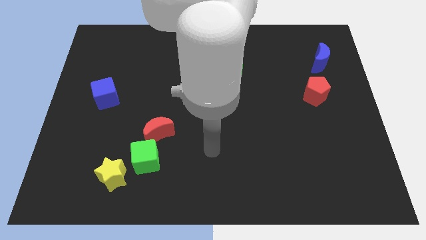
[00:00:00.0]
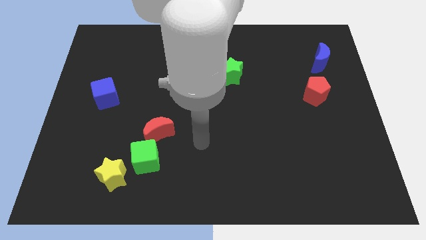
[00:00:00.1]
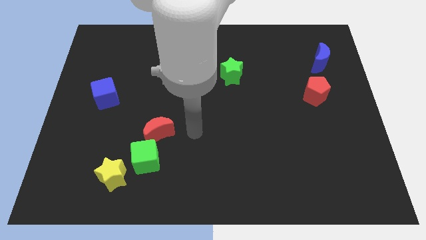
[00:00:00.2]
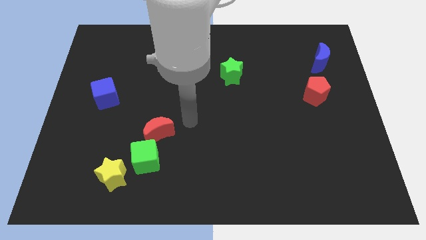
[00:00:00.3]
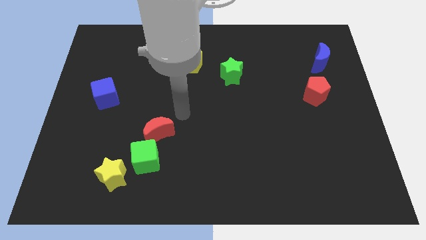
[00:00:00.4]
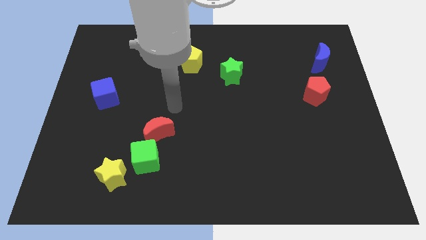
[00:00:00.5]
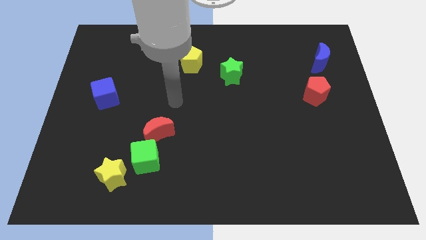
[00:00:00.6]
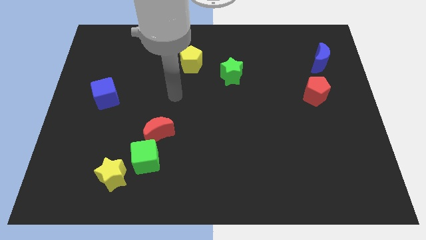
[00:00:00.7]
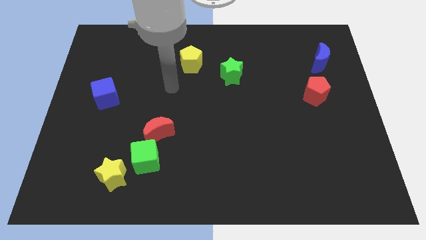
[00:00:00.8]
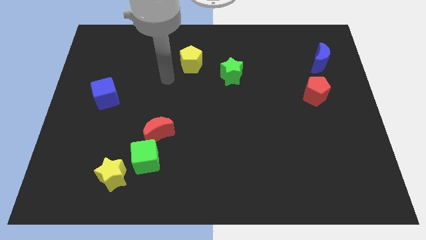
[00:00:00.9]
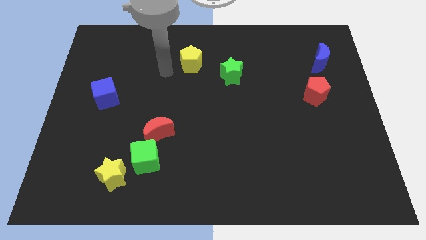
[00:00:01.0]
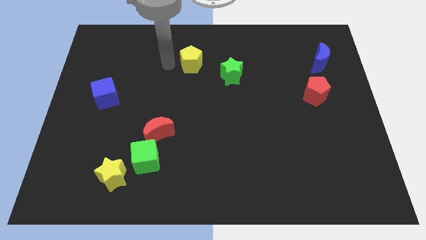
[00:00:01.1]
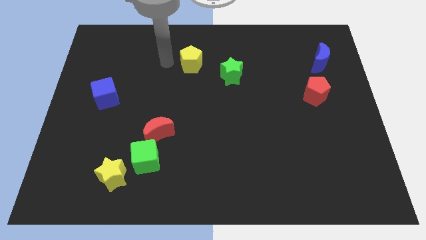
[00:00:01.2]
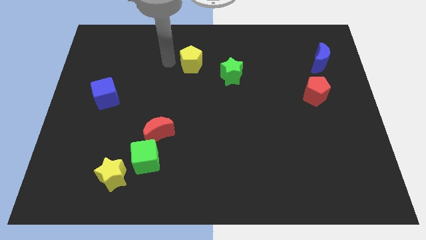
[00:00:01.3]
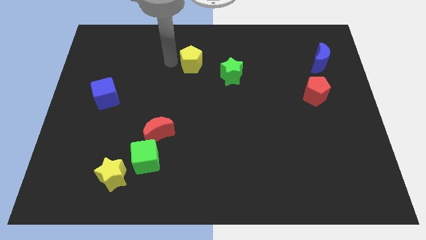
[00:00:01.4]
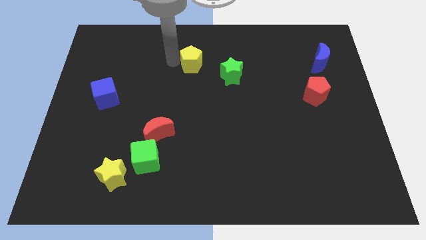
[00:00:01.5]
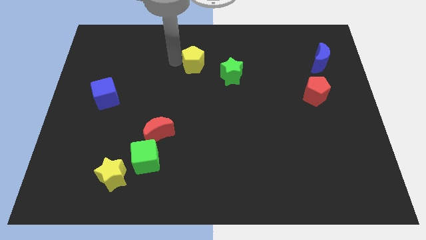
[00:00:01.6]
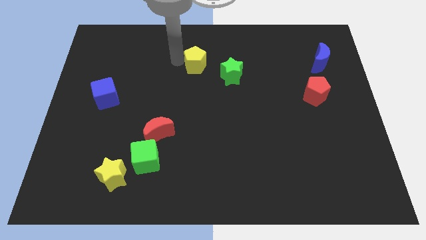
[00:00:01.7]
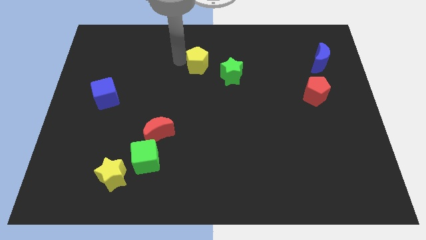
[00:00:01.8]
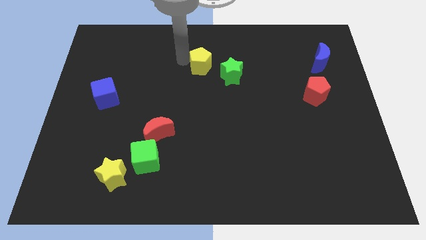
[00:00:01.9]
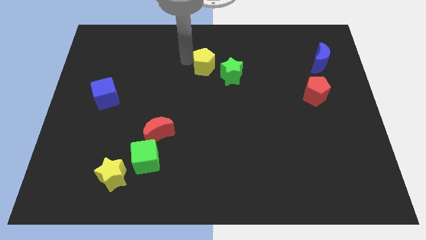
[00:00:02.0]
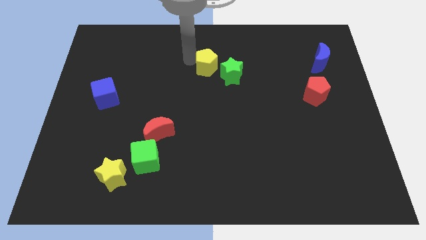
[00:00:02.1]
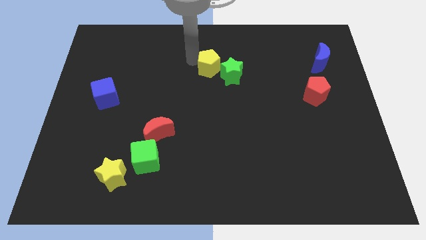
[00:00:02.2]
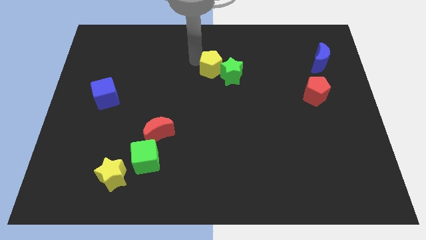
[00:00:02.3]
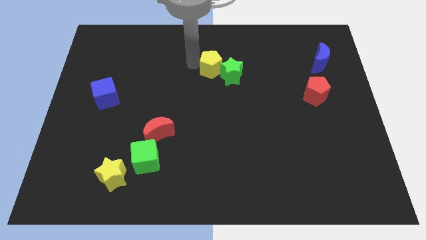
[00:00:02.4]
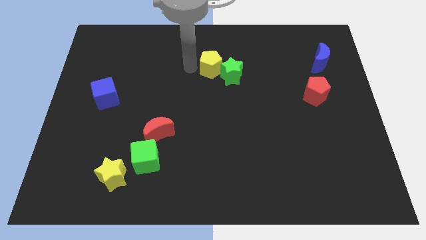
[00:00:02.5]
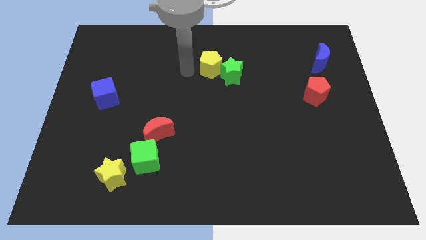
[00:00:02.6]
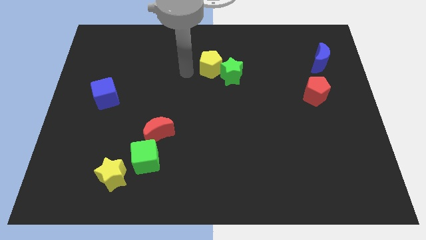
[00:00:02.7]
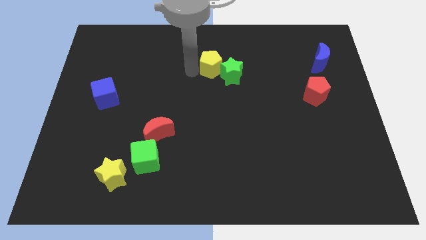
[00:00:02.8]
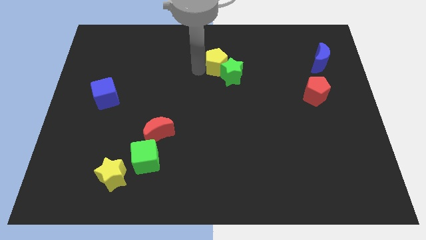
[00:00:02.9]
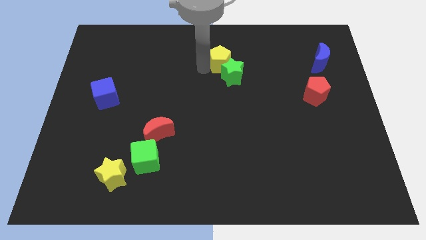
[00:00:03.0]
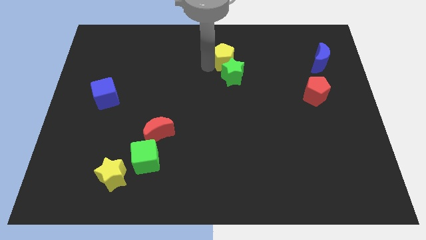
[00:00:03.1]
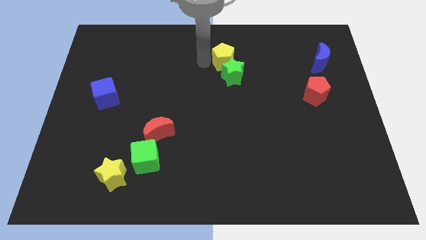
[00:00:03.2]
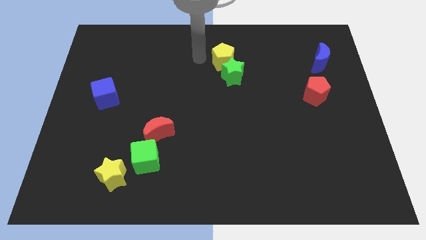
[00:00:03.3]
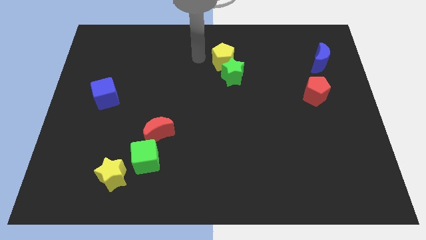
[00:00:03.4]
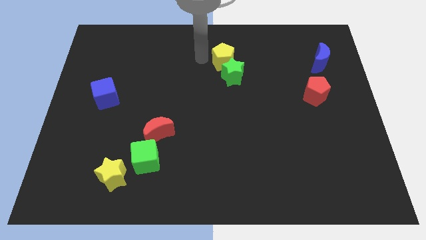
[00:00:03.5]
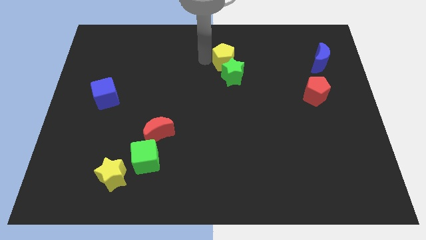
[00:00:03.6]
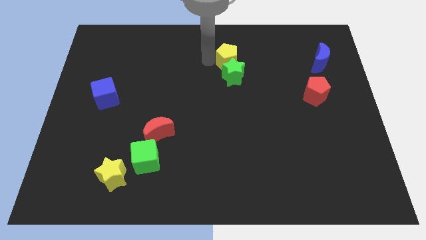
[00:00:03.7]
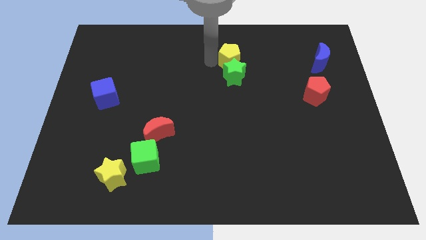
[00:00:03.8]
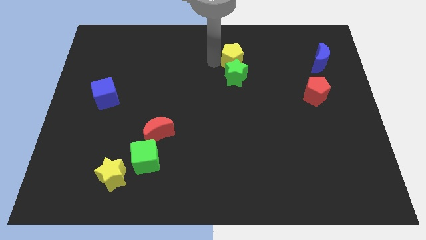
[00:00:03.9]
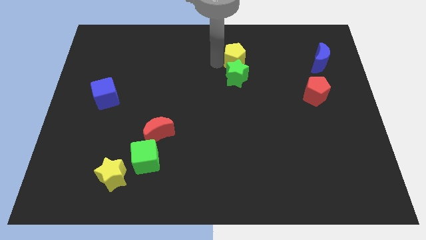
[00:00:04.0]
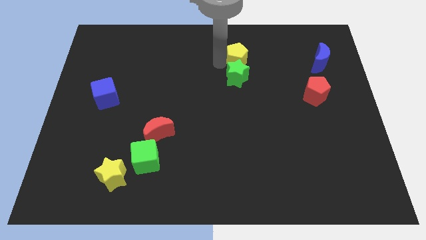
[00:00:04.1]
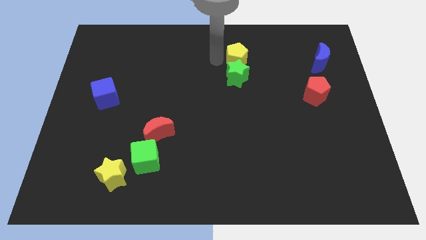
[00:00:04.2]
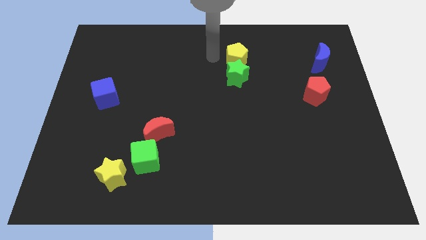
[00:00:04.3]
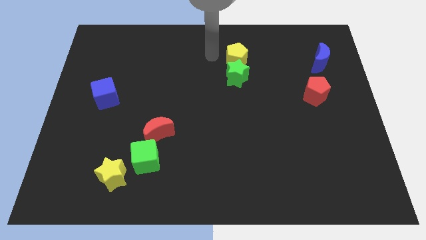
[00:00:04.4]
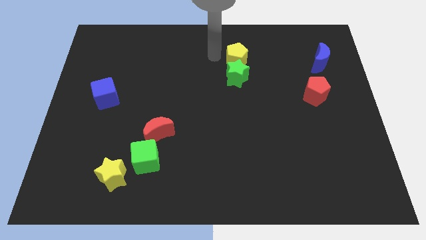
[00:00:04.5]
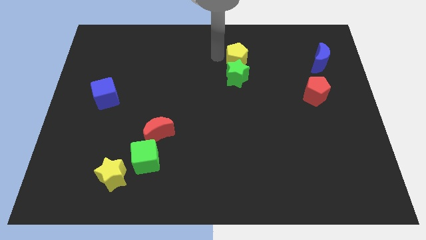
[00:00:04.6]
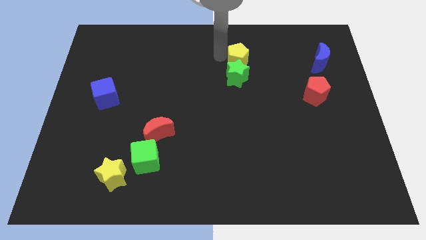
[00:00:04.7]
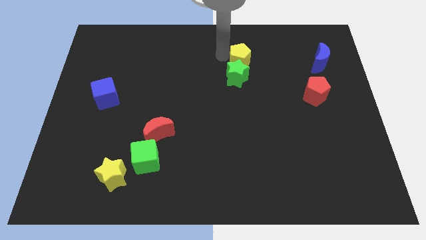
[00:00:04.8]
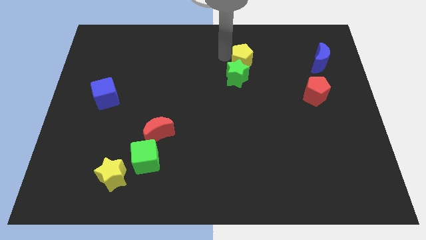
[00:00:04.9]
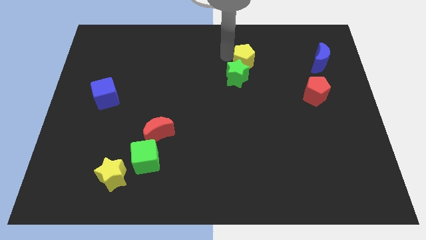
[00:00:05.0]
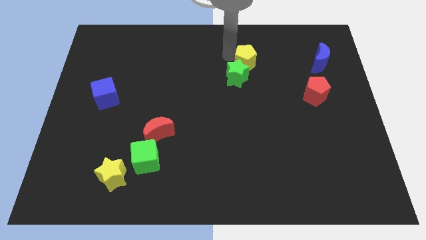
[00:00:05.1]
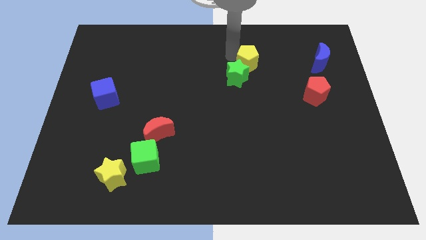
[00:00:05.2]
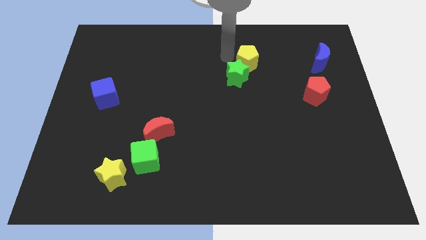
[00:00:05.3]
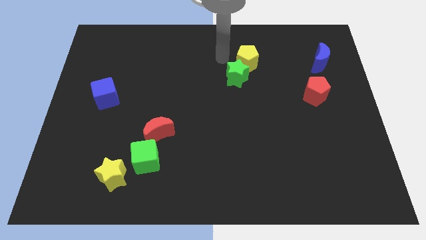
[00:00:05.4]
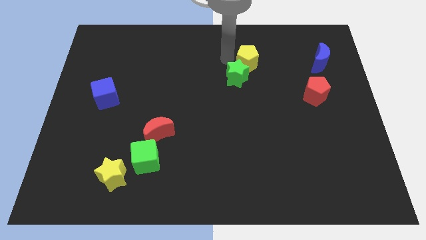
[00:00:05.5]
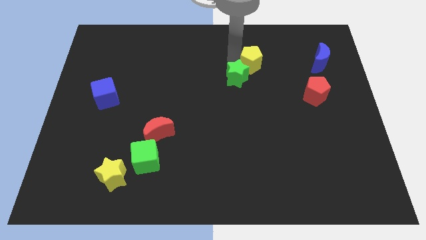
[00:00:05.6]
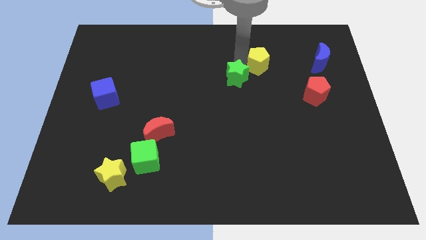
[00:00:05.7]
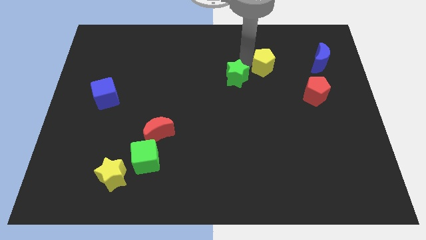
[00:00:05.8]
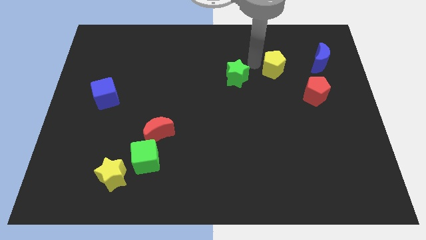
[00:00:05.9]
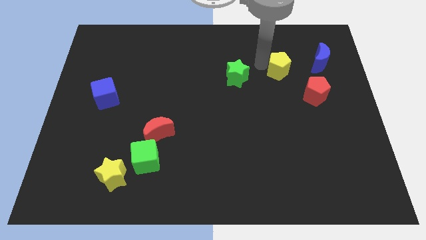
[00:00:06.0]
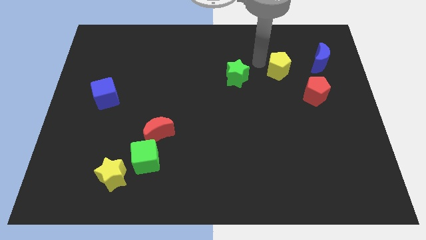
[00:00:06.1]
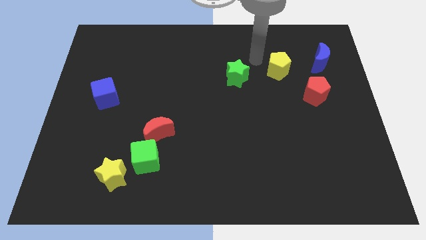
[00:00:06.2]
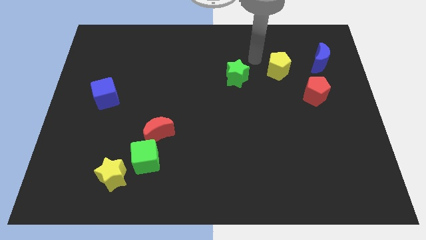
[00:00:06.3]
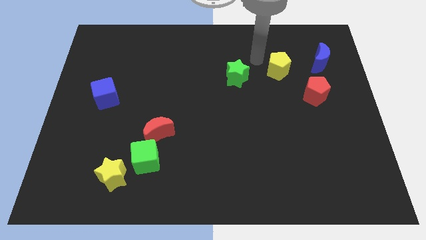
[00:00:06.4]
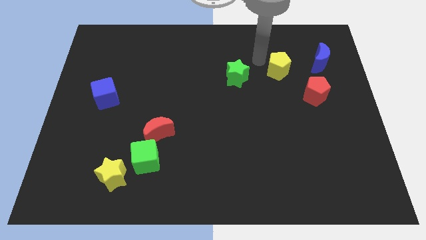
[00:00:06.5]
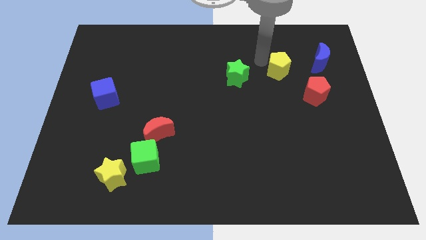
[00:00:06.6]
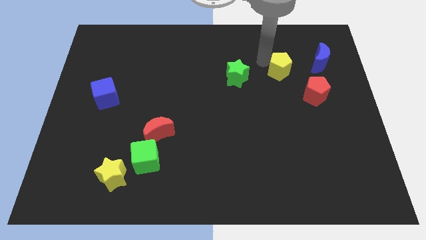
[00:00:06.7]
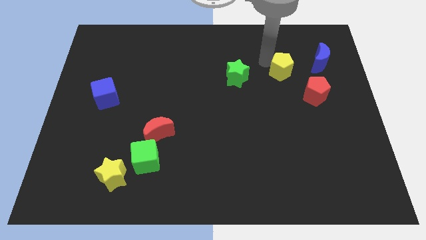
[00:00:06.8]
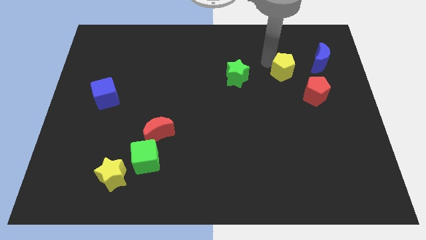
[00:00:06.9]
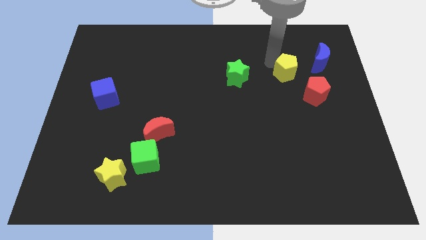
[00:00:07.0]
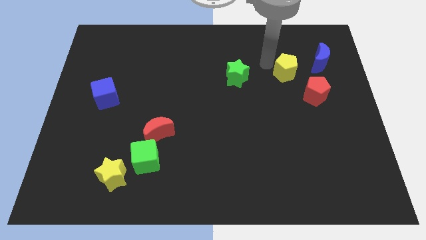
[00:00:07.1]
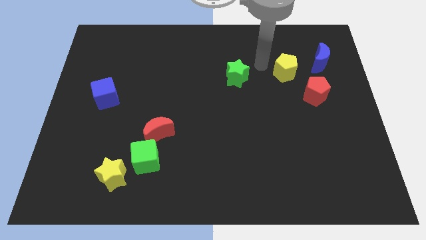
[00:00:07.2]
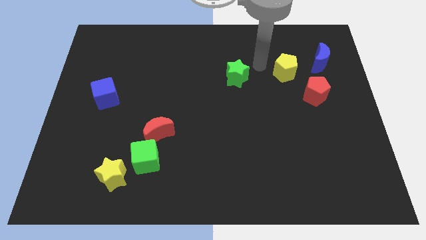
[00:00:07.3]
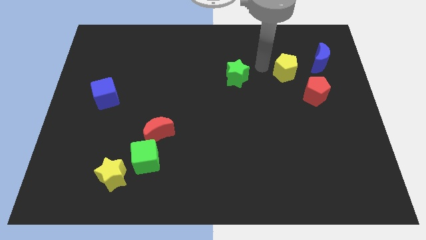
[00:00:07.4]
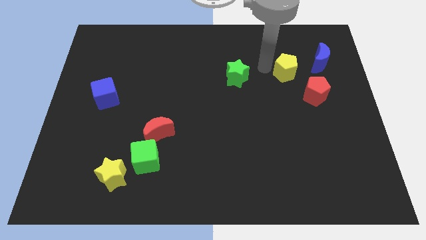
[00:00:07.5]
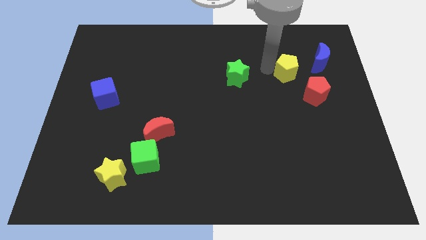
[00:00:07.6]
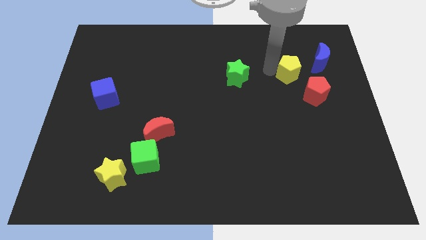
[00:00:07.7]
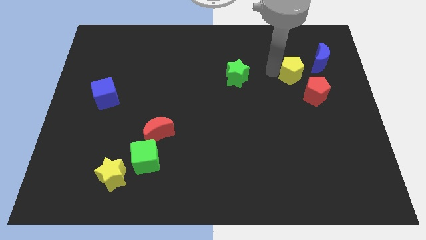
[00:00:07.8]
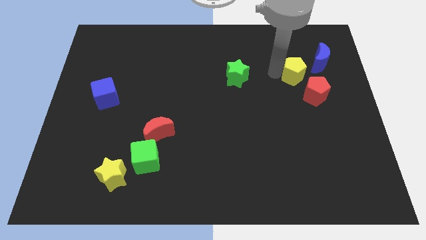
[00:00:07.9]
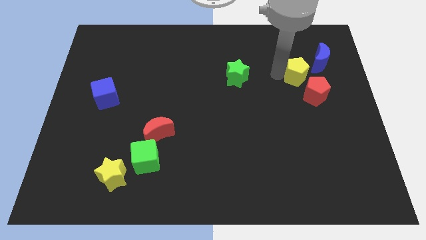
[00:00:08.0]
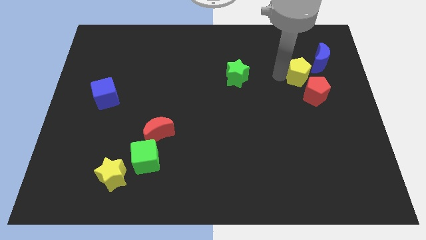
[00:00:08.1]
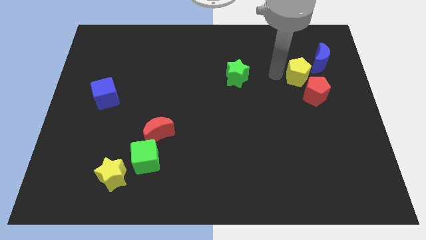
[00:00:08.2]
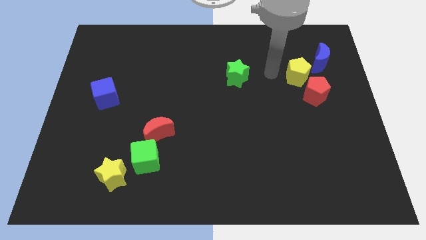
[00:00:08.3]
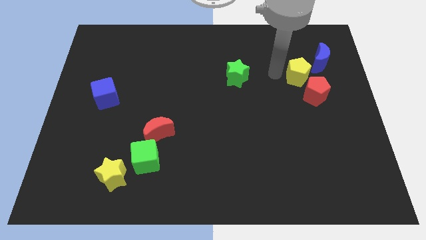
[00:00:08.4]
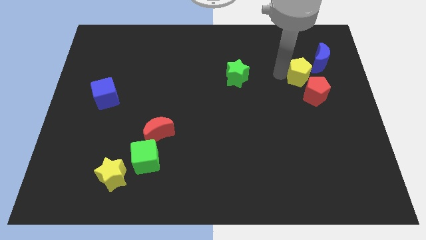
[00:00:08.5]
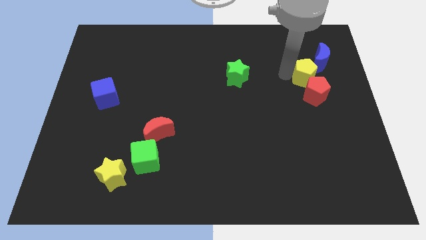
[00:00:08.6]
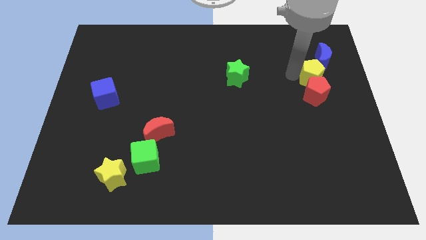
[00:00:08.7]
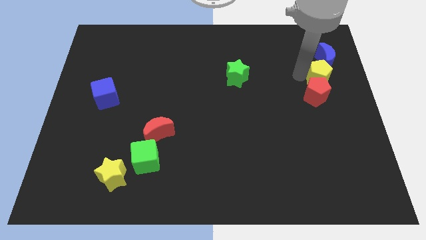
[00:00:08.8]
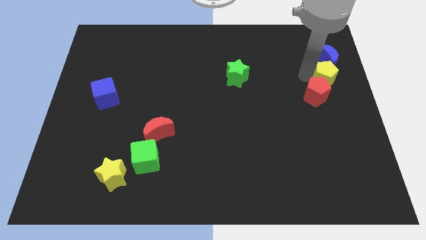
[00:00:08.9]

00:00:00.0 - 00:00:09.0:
move the yellow pentagon to the right side of the board
